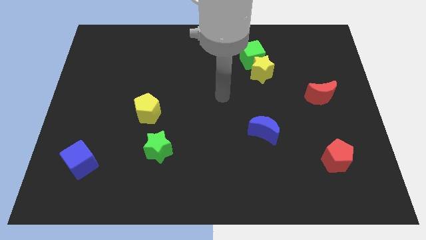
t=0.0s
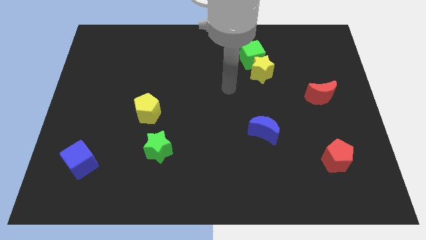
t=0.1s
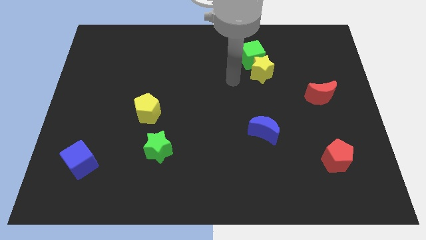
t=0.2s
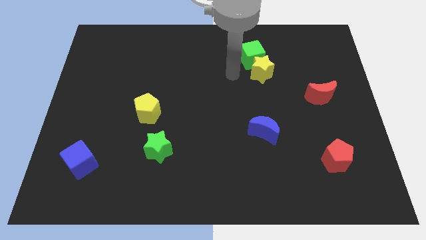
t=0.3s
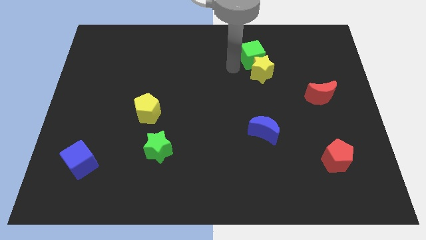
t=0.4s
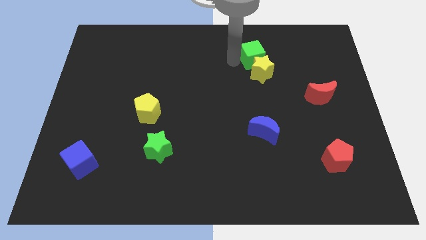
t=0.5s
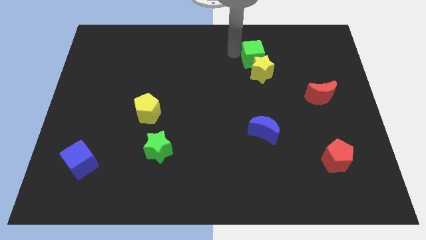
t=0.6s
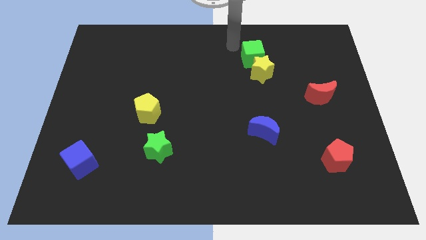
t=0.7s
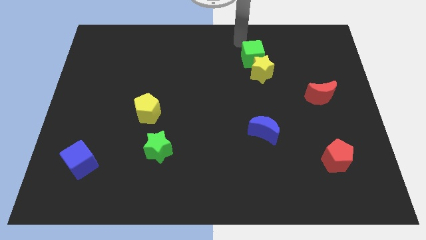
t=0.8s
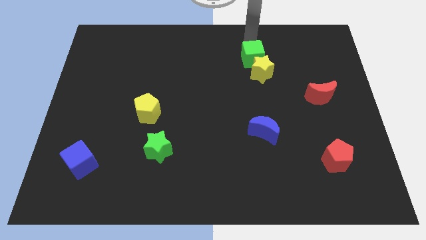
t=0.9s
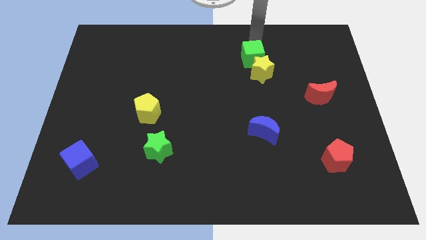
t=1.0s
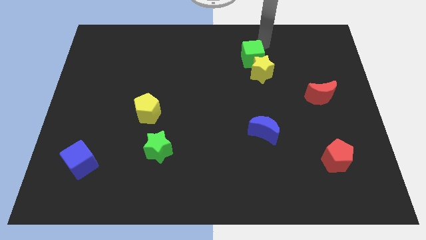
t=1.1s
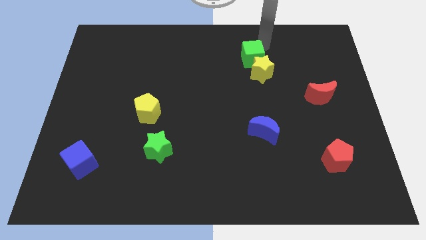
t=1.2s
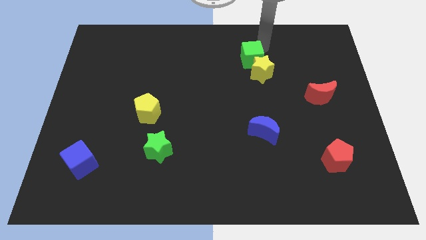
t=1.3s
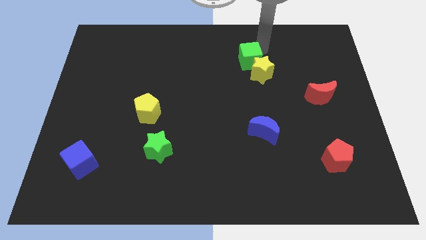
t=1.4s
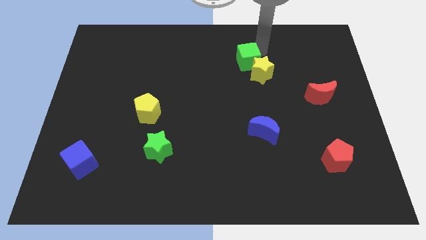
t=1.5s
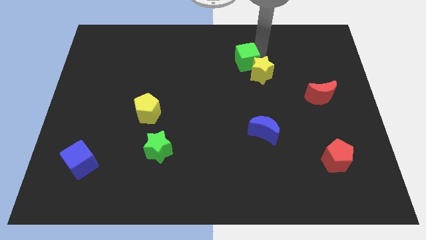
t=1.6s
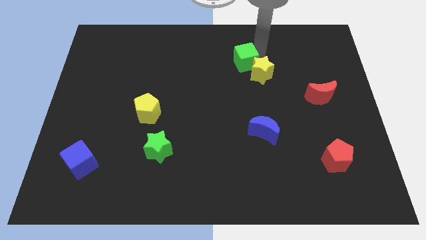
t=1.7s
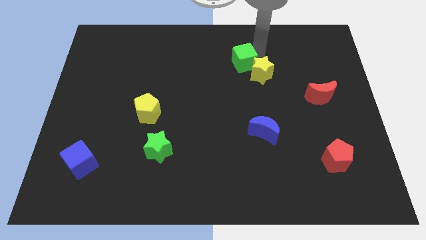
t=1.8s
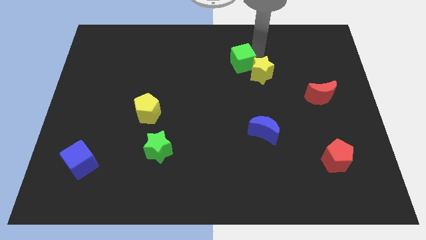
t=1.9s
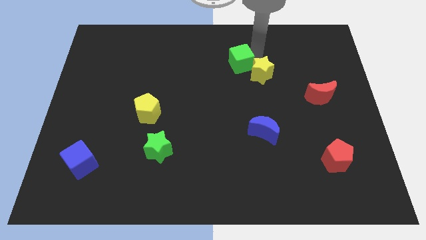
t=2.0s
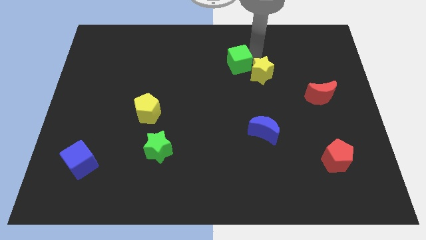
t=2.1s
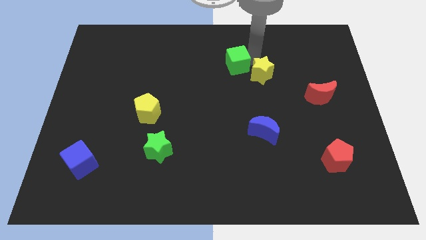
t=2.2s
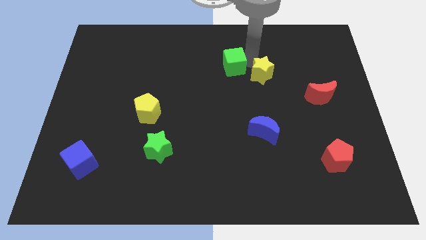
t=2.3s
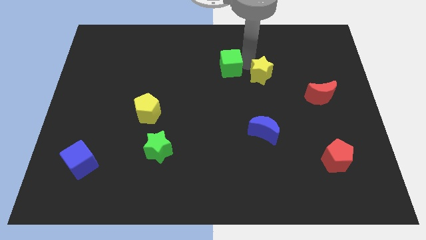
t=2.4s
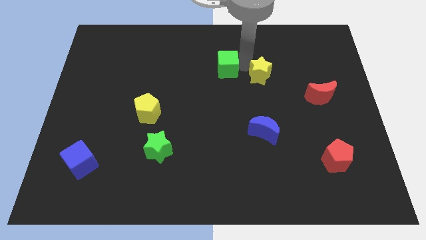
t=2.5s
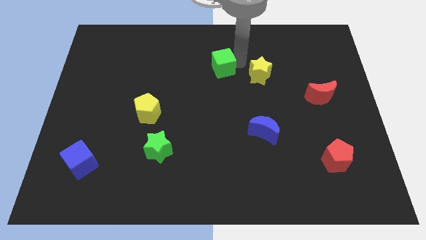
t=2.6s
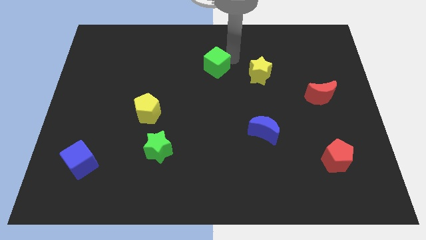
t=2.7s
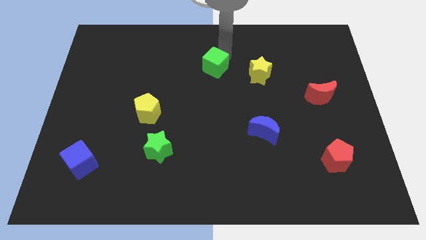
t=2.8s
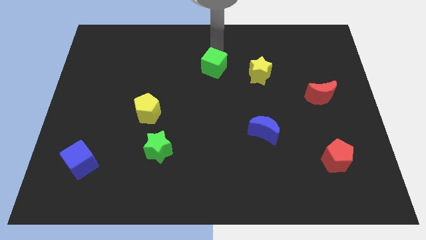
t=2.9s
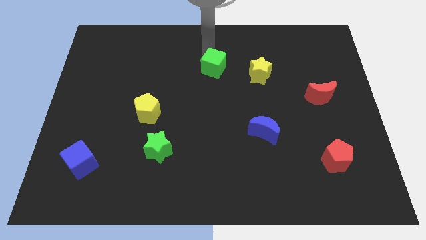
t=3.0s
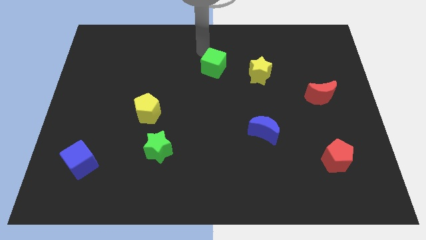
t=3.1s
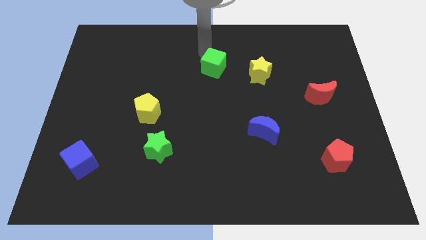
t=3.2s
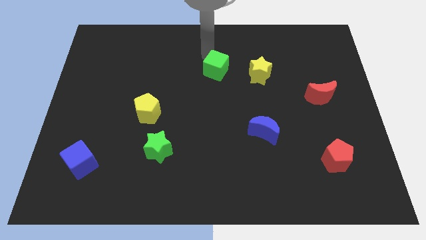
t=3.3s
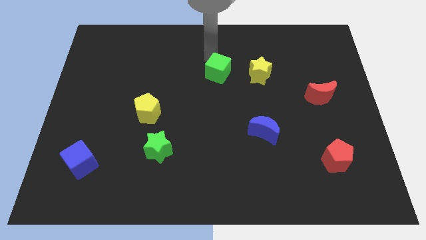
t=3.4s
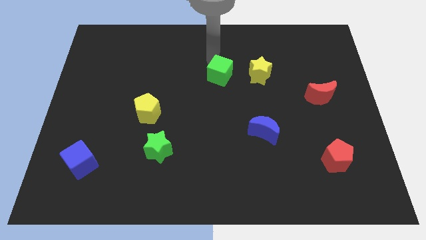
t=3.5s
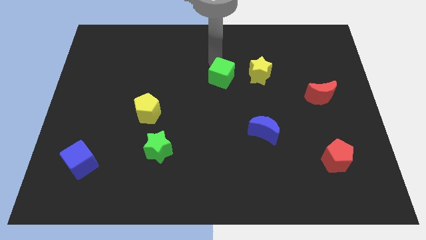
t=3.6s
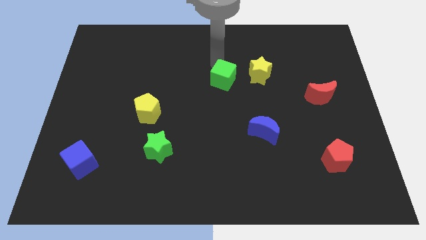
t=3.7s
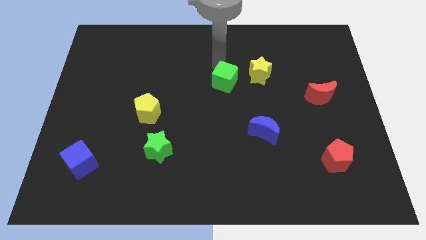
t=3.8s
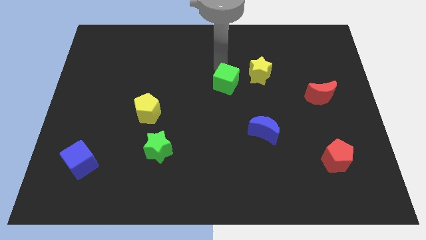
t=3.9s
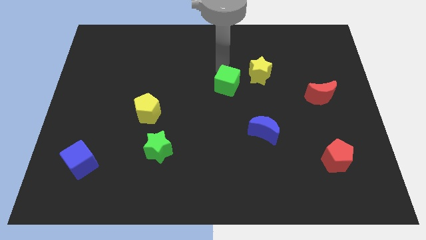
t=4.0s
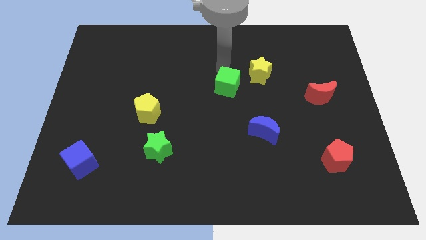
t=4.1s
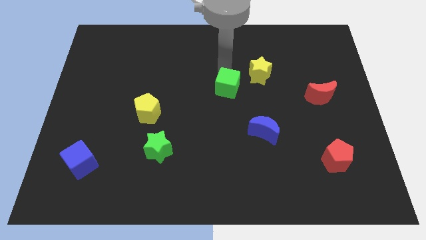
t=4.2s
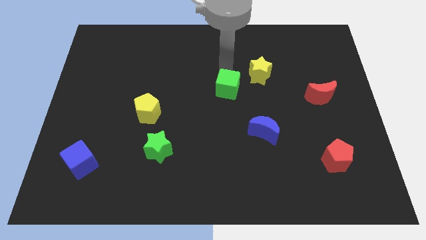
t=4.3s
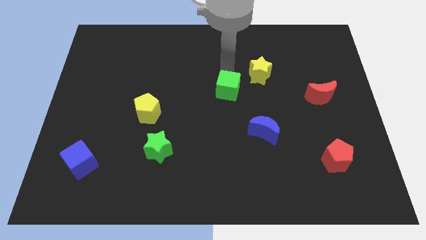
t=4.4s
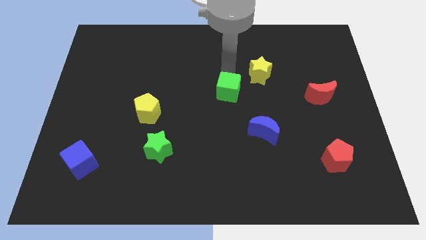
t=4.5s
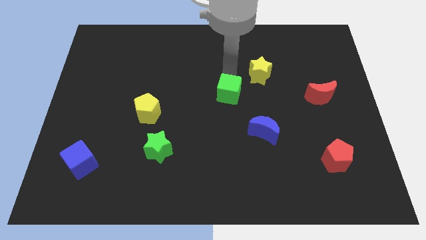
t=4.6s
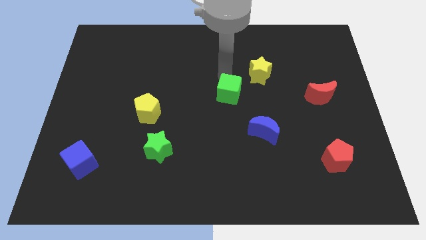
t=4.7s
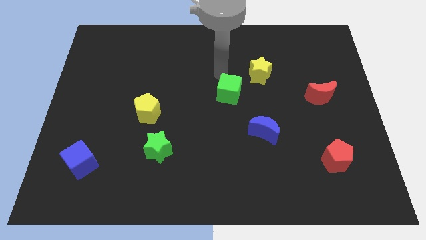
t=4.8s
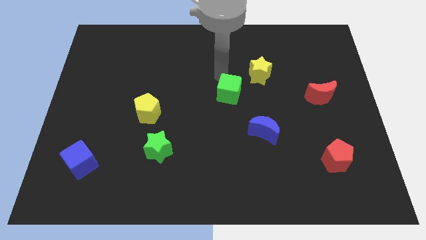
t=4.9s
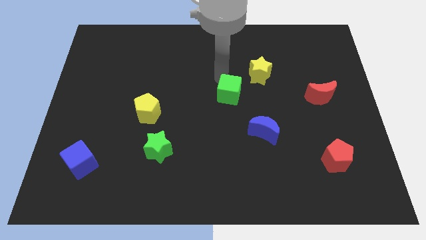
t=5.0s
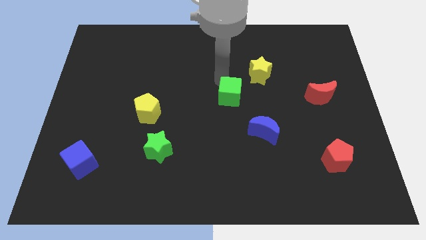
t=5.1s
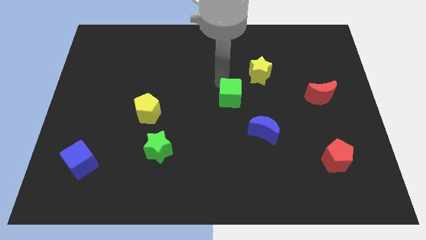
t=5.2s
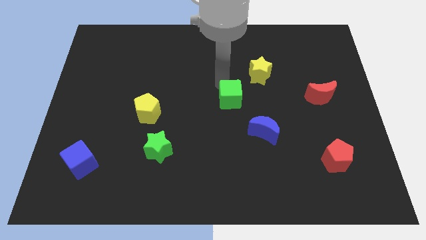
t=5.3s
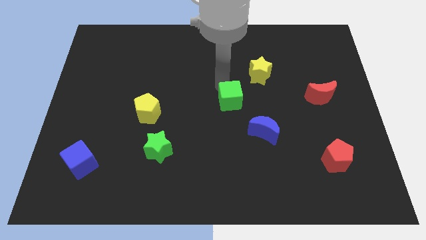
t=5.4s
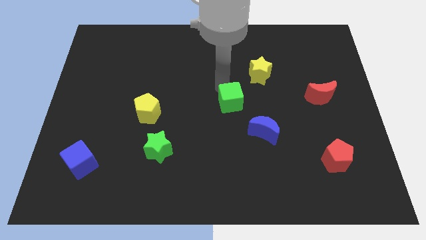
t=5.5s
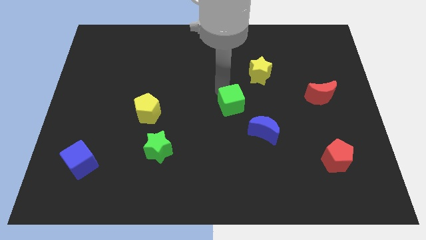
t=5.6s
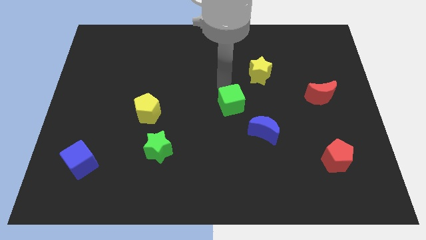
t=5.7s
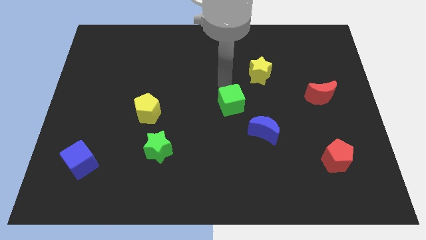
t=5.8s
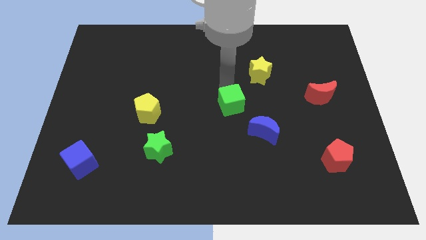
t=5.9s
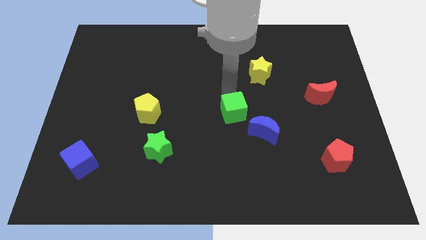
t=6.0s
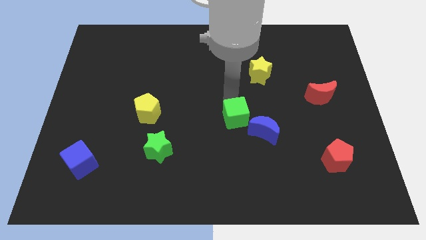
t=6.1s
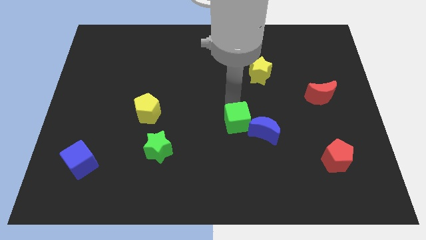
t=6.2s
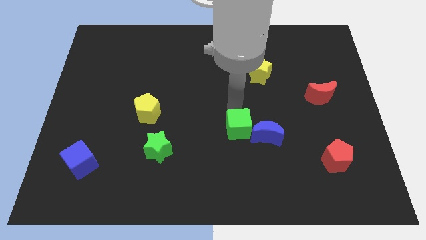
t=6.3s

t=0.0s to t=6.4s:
push the green cube downwards

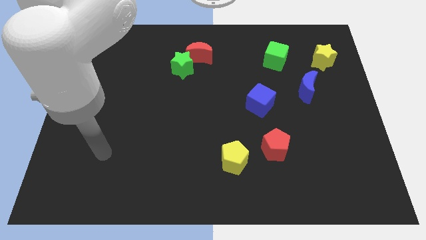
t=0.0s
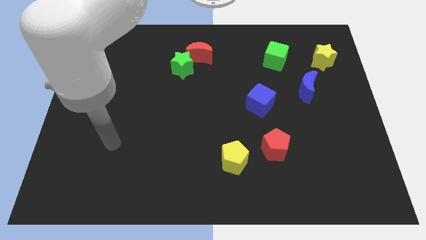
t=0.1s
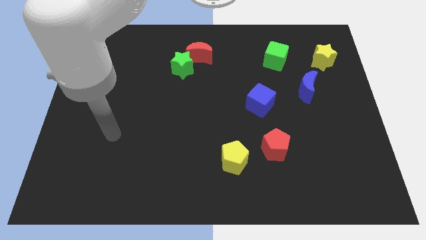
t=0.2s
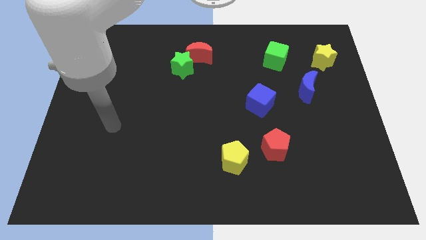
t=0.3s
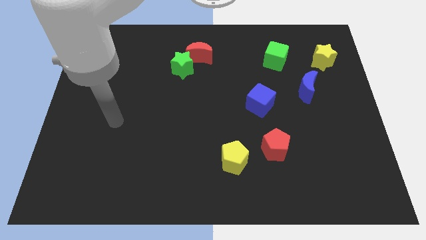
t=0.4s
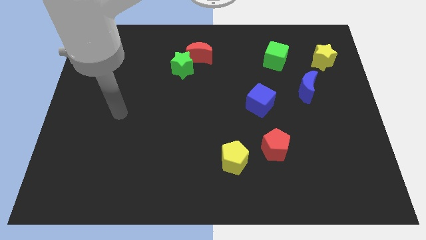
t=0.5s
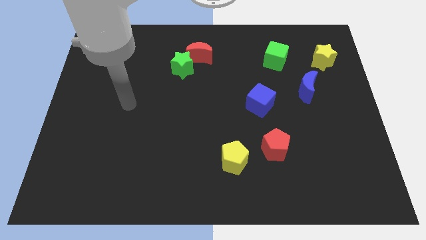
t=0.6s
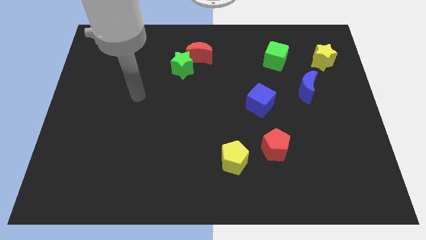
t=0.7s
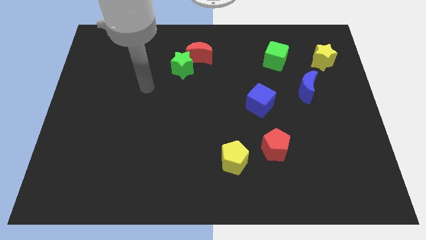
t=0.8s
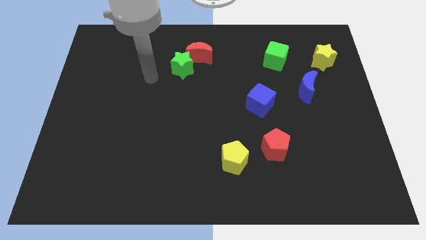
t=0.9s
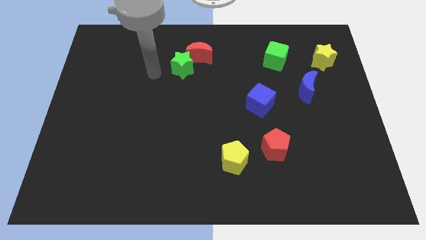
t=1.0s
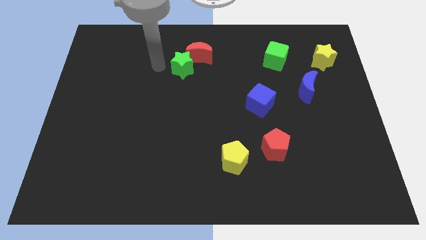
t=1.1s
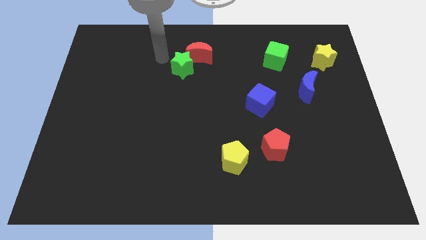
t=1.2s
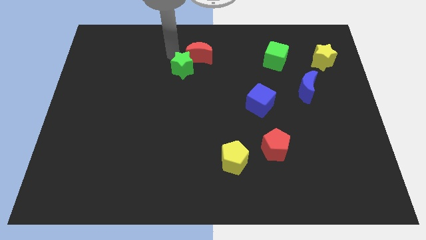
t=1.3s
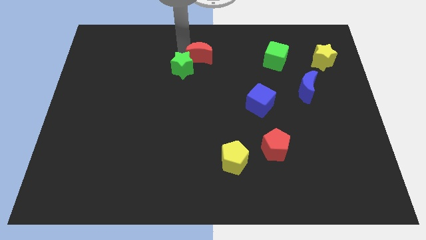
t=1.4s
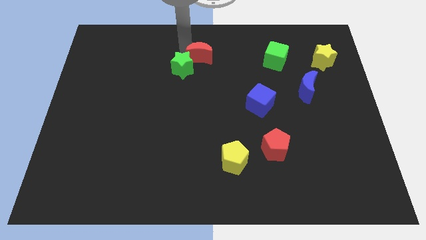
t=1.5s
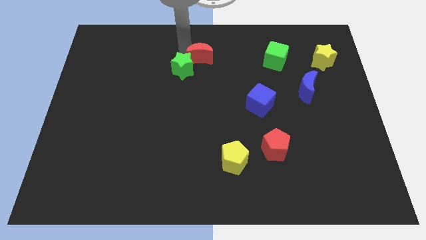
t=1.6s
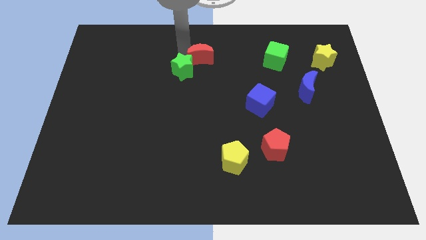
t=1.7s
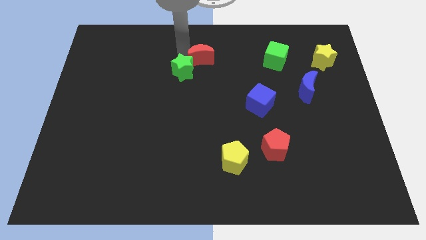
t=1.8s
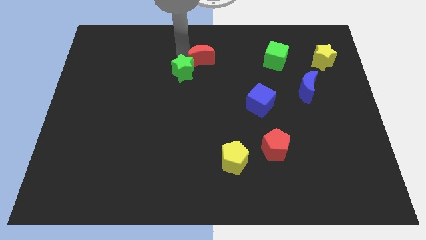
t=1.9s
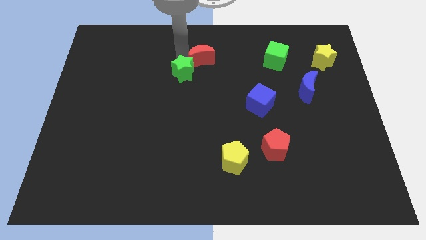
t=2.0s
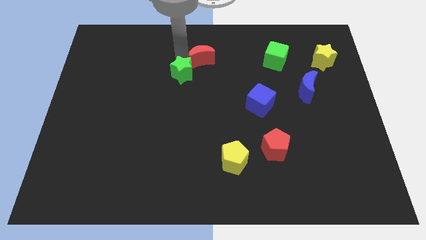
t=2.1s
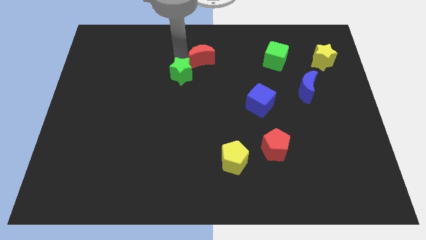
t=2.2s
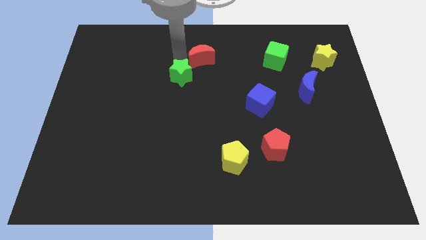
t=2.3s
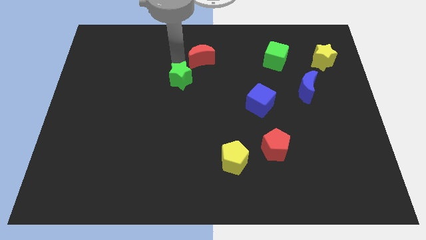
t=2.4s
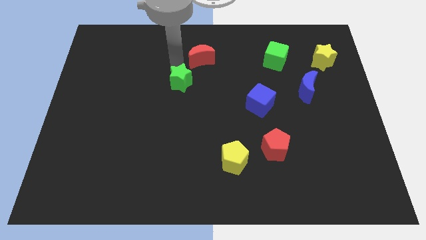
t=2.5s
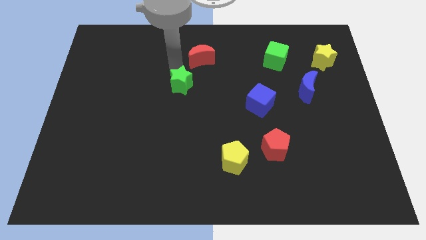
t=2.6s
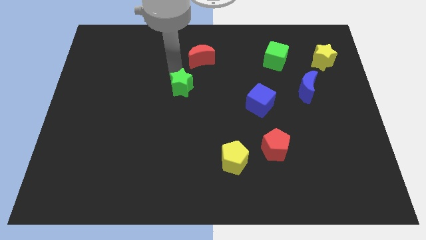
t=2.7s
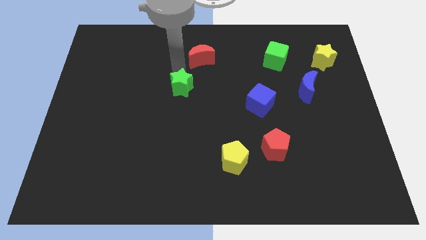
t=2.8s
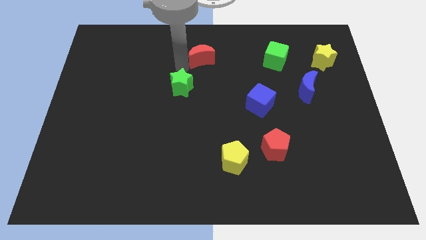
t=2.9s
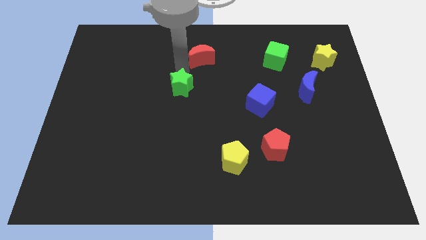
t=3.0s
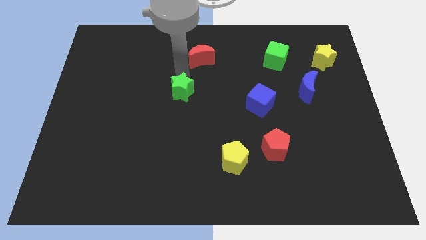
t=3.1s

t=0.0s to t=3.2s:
push the green star down slightly
